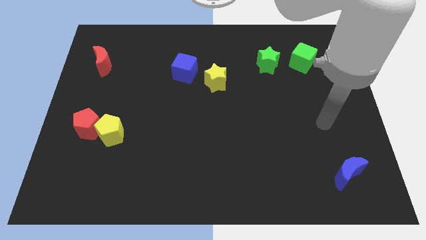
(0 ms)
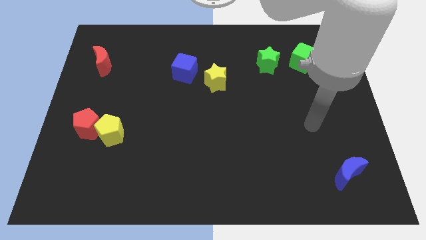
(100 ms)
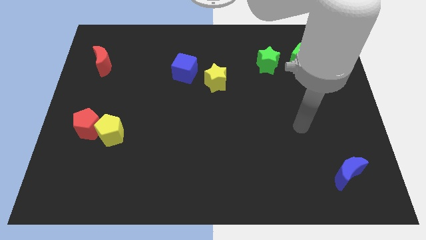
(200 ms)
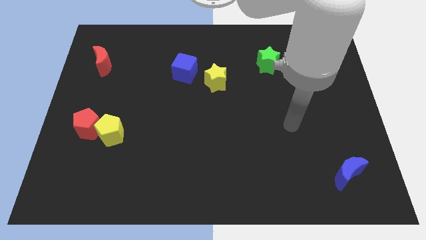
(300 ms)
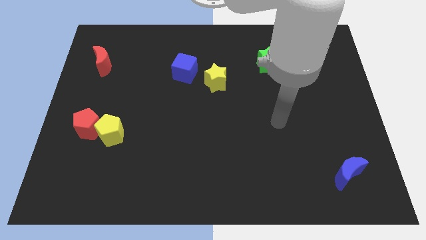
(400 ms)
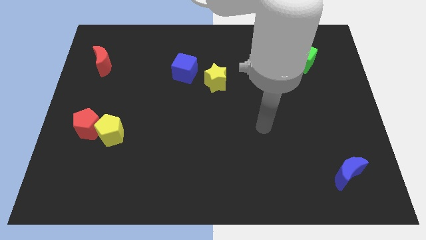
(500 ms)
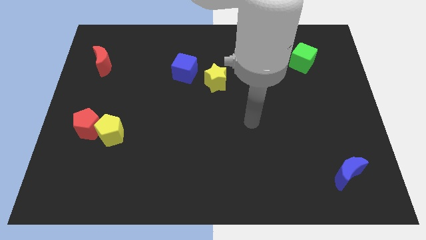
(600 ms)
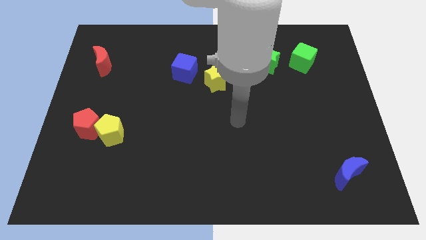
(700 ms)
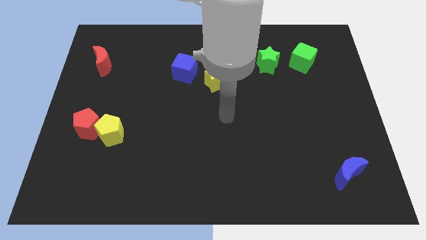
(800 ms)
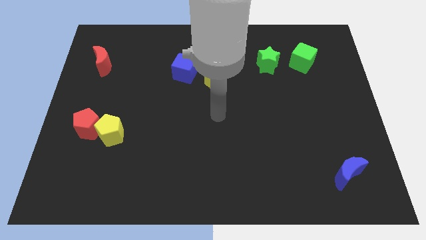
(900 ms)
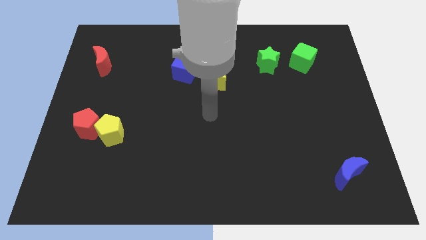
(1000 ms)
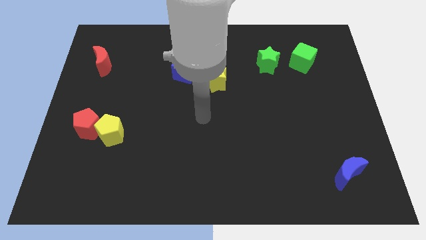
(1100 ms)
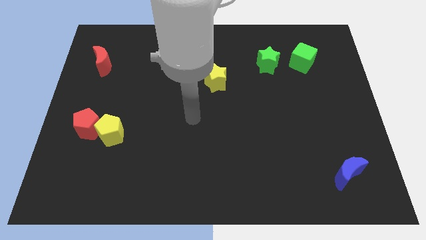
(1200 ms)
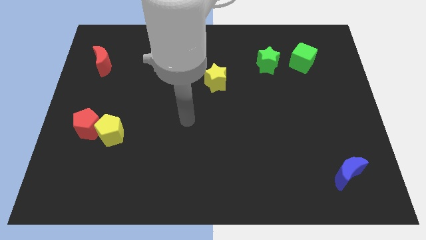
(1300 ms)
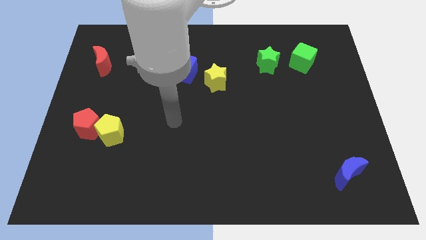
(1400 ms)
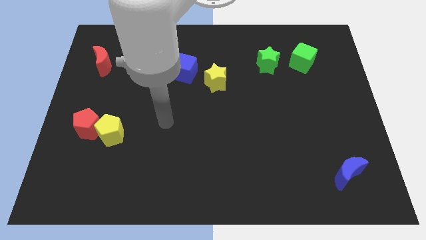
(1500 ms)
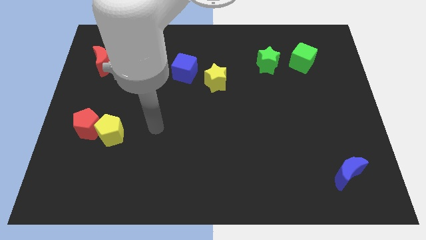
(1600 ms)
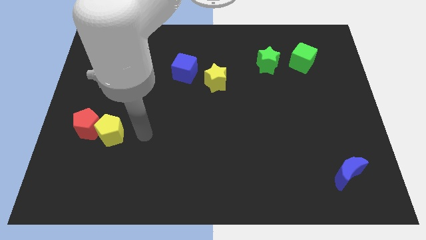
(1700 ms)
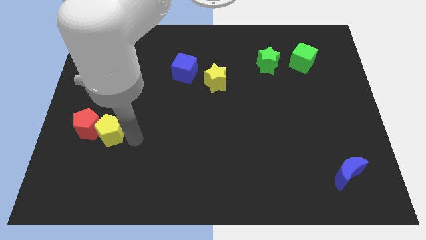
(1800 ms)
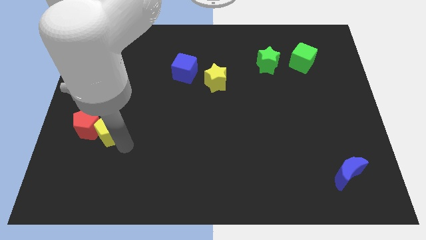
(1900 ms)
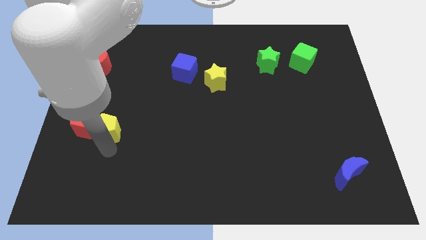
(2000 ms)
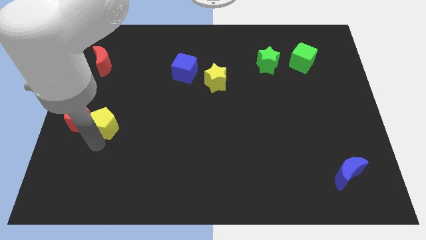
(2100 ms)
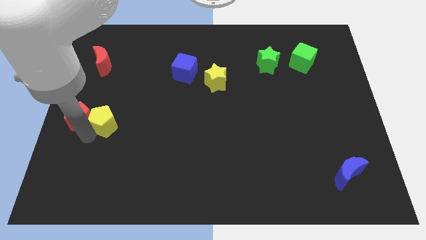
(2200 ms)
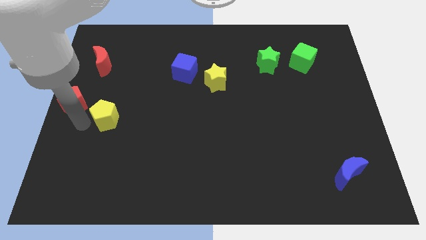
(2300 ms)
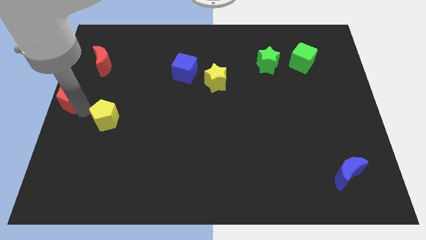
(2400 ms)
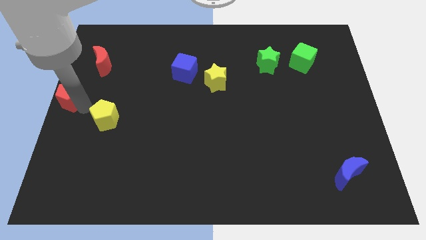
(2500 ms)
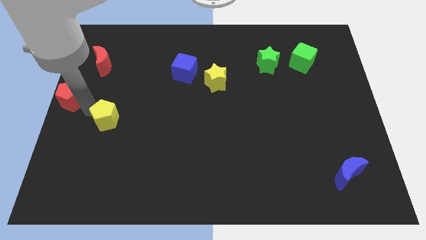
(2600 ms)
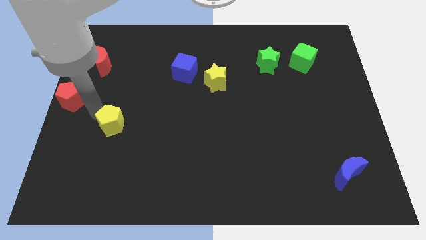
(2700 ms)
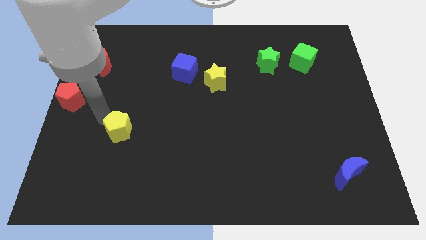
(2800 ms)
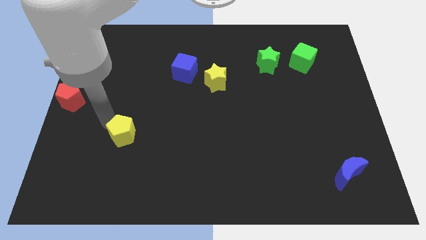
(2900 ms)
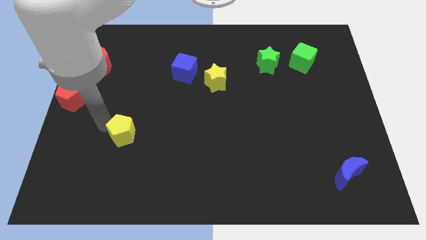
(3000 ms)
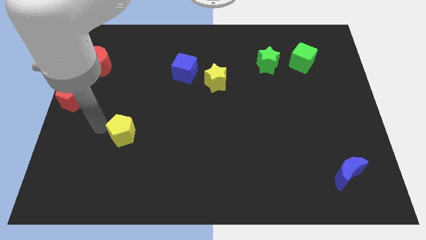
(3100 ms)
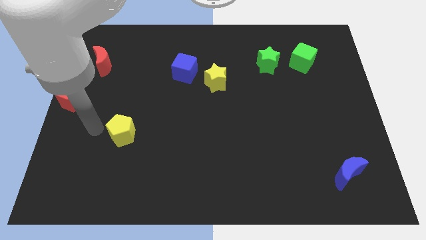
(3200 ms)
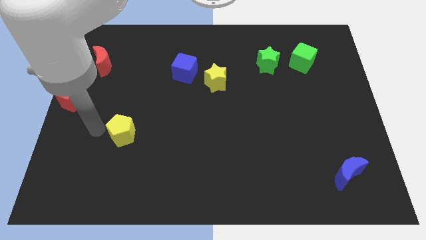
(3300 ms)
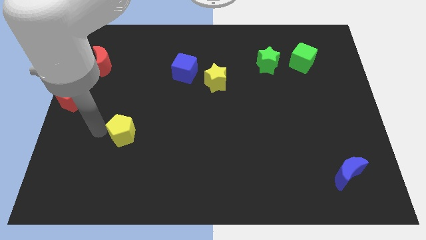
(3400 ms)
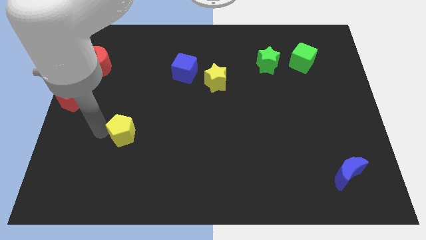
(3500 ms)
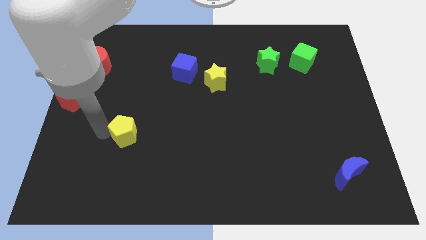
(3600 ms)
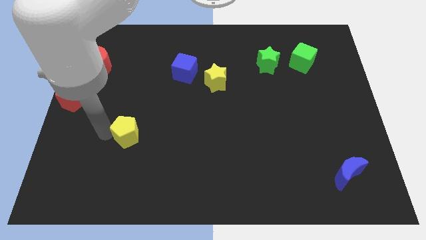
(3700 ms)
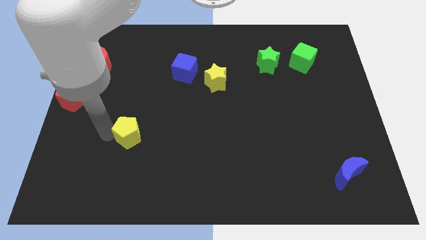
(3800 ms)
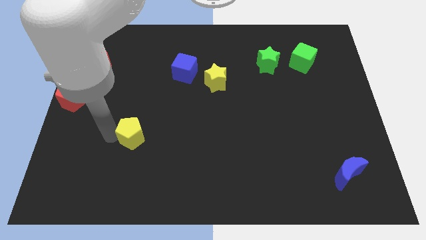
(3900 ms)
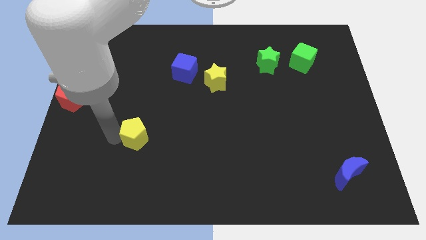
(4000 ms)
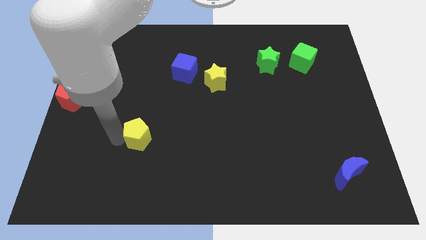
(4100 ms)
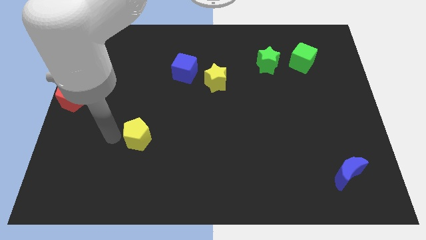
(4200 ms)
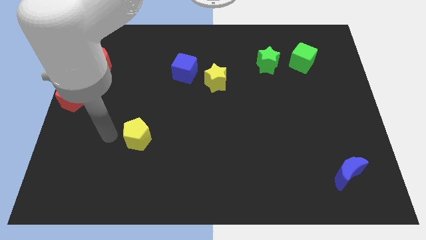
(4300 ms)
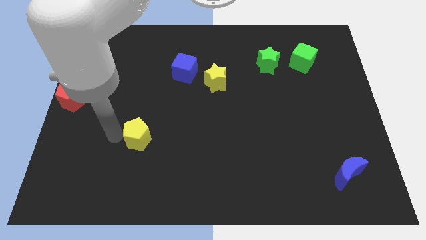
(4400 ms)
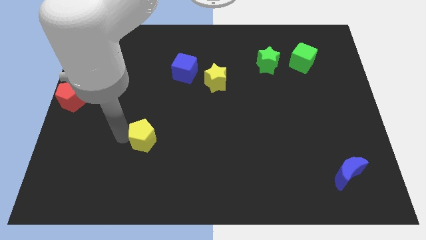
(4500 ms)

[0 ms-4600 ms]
slide the yellow pentagon a little bit right

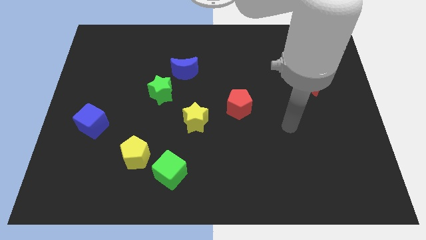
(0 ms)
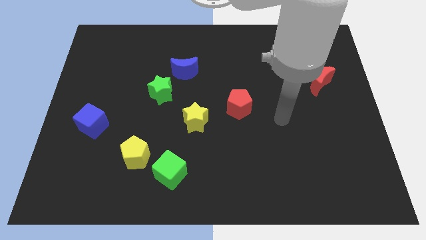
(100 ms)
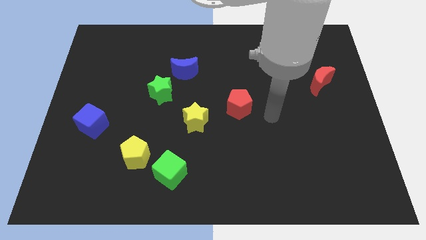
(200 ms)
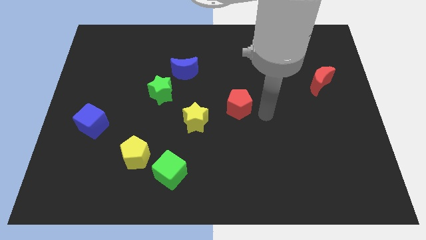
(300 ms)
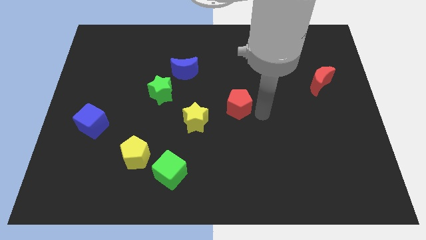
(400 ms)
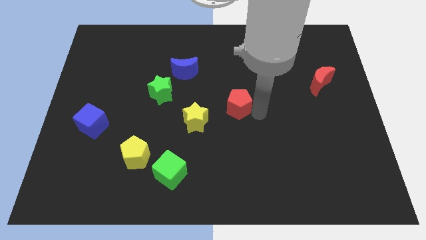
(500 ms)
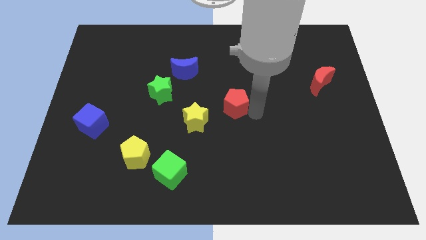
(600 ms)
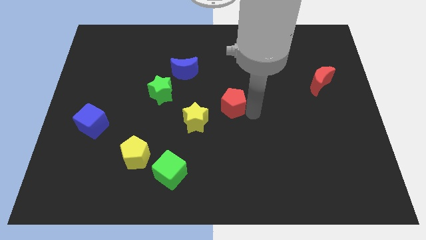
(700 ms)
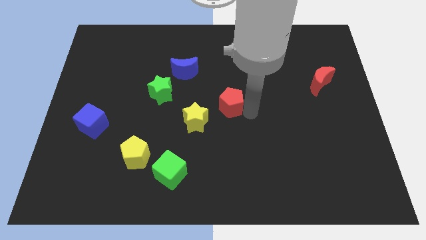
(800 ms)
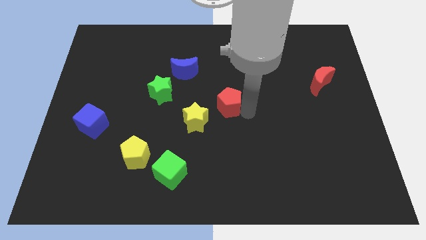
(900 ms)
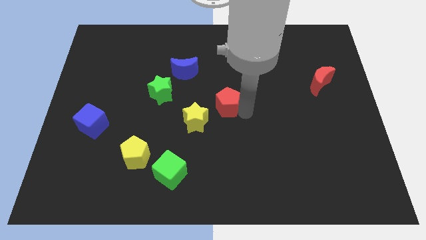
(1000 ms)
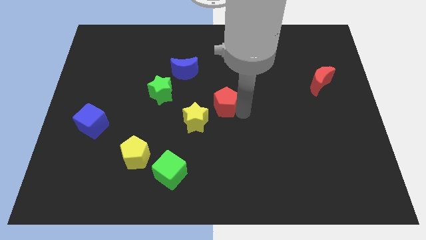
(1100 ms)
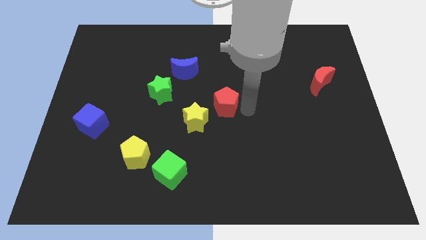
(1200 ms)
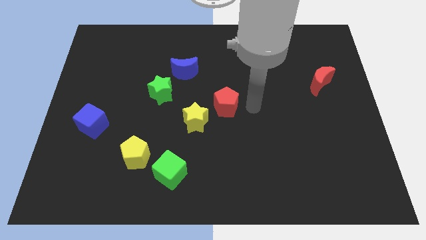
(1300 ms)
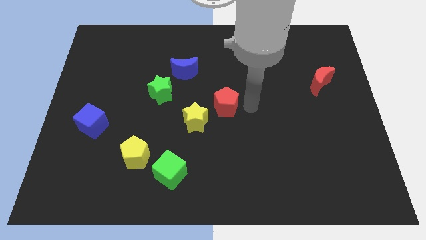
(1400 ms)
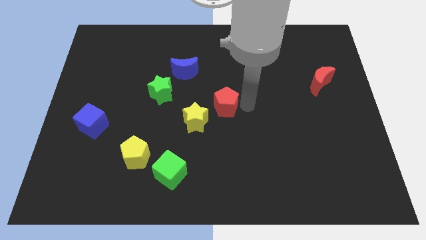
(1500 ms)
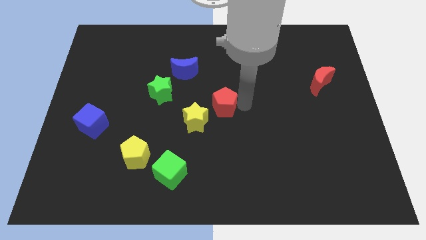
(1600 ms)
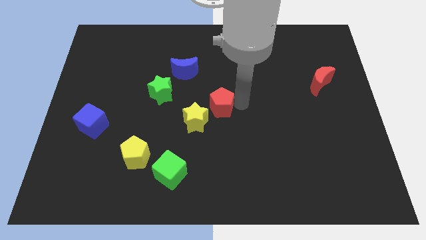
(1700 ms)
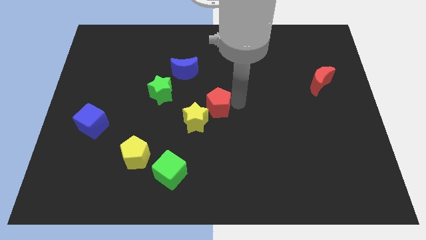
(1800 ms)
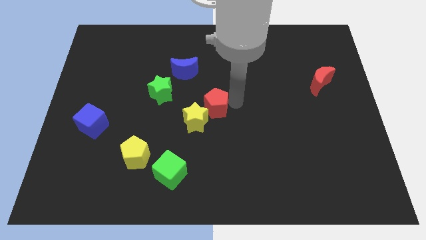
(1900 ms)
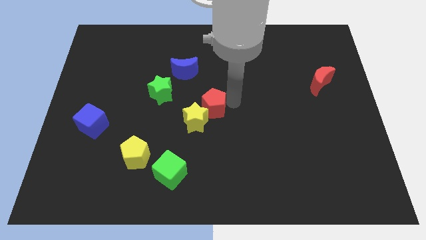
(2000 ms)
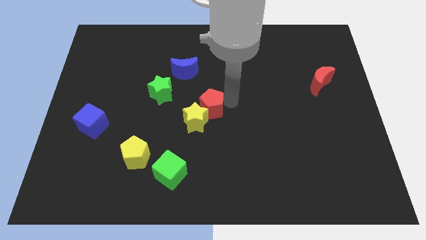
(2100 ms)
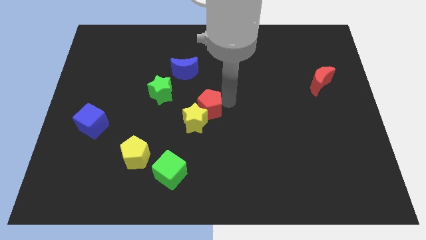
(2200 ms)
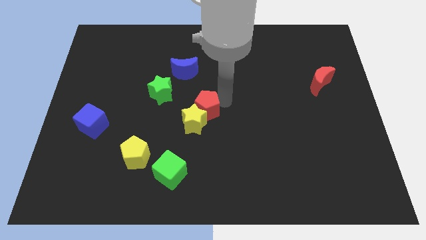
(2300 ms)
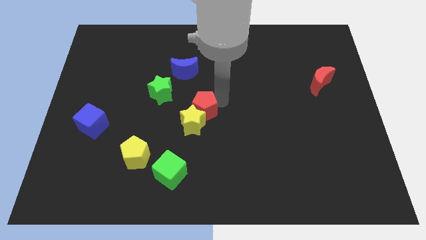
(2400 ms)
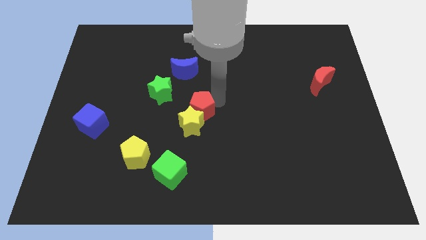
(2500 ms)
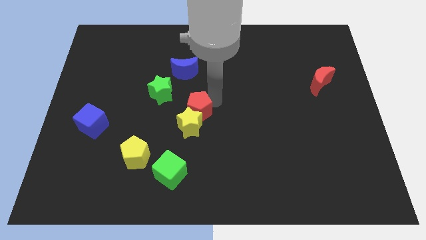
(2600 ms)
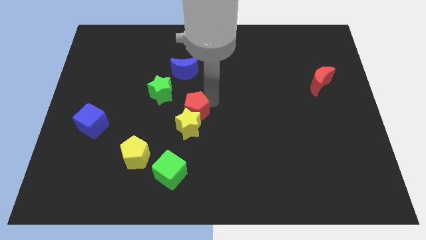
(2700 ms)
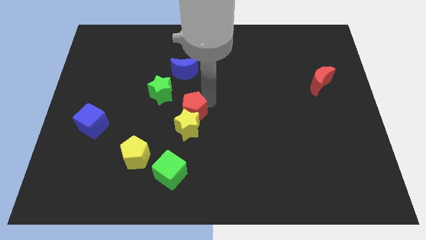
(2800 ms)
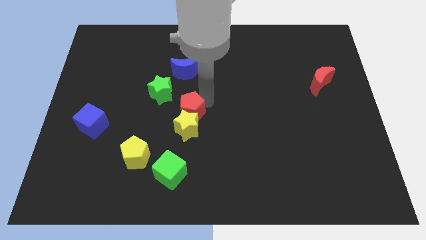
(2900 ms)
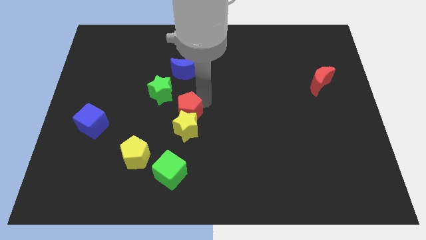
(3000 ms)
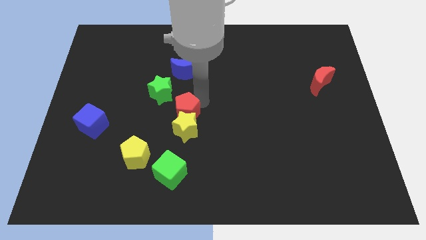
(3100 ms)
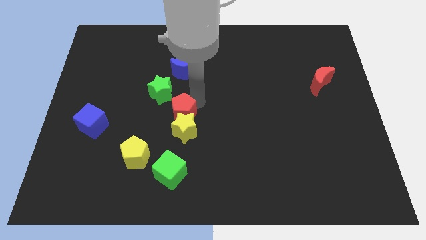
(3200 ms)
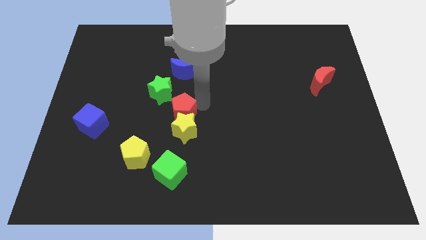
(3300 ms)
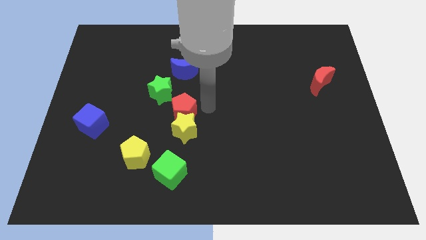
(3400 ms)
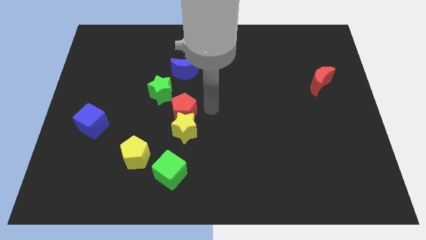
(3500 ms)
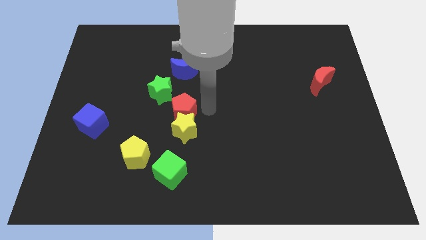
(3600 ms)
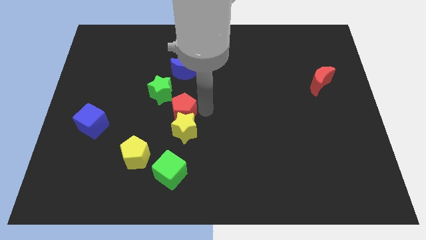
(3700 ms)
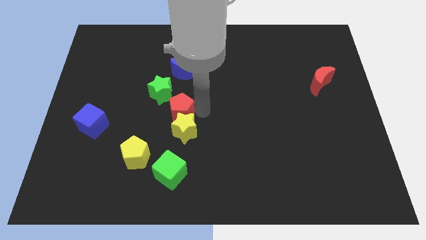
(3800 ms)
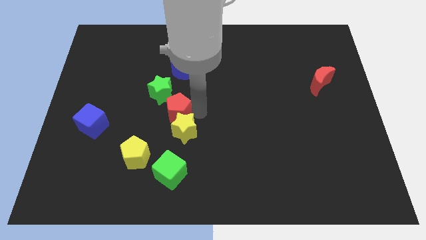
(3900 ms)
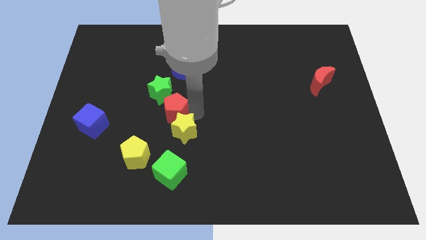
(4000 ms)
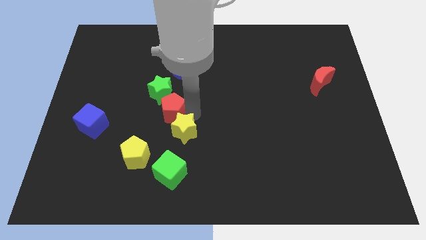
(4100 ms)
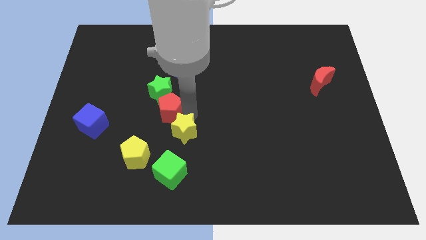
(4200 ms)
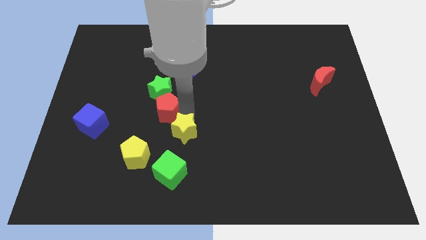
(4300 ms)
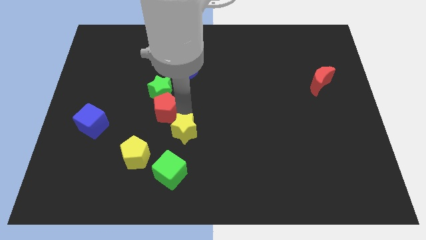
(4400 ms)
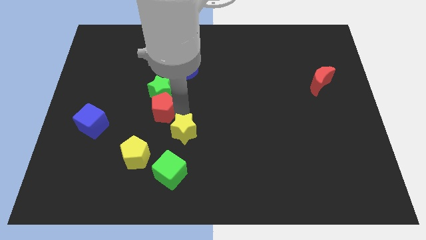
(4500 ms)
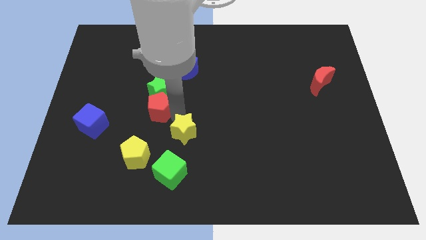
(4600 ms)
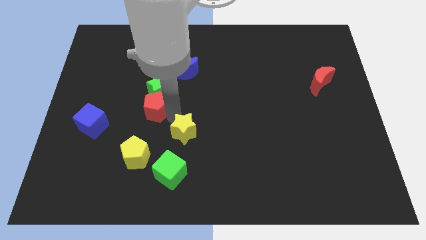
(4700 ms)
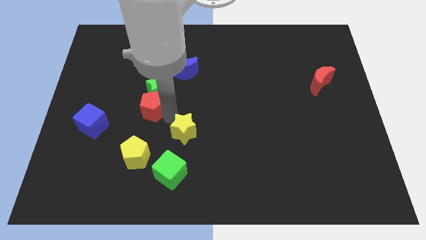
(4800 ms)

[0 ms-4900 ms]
slide the red pentagon left
